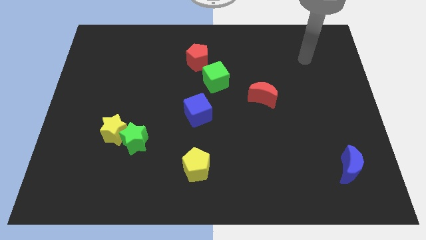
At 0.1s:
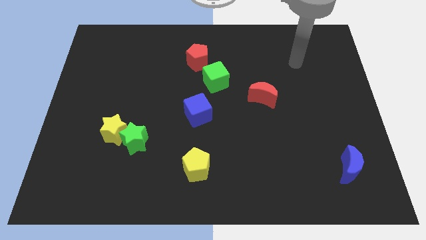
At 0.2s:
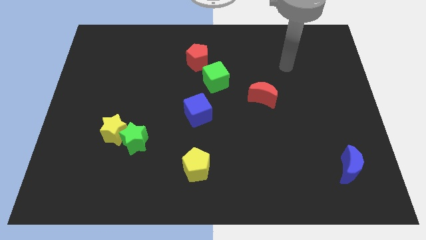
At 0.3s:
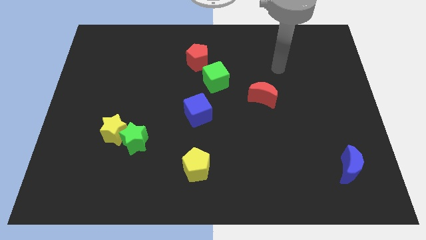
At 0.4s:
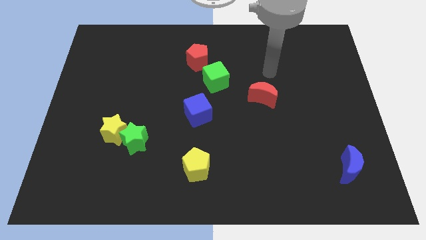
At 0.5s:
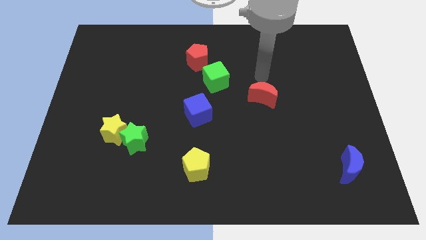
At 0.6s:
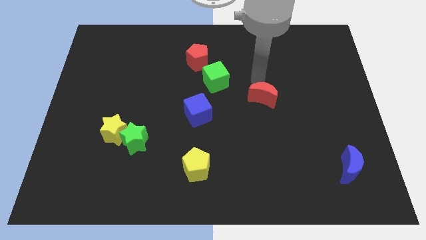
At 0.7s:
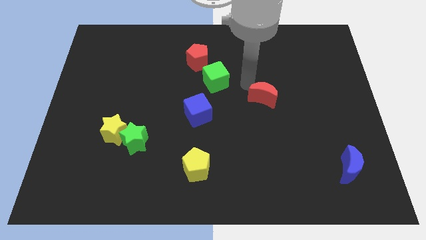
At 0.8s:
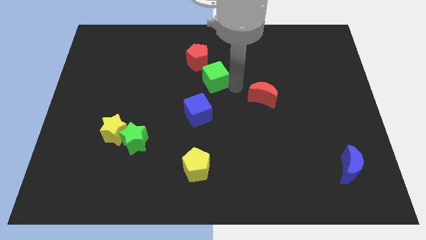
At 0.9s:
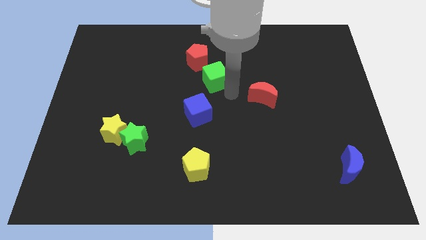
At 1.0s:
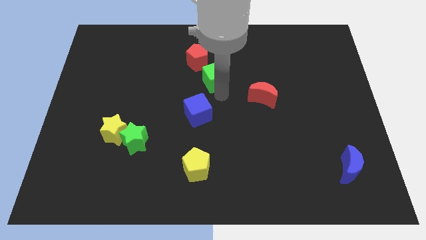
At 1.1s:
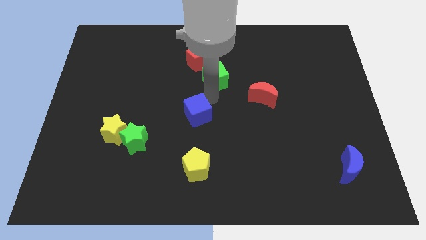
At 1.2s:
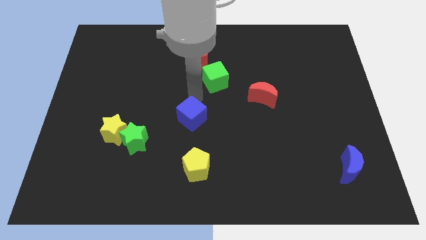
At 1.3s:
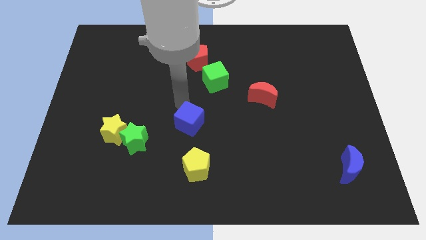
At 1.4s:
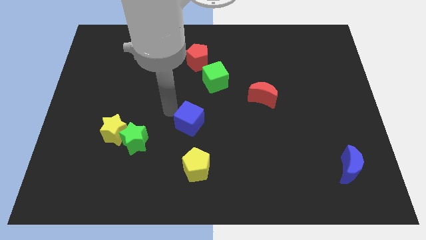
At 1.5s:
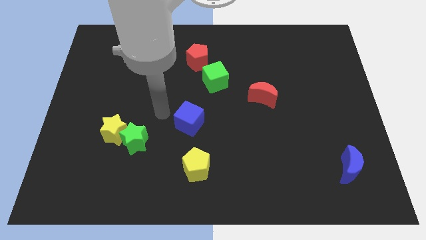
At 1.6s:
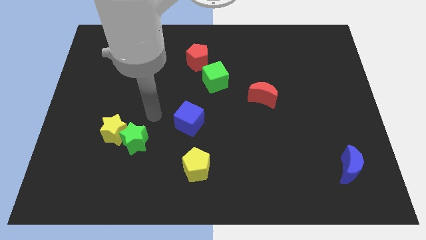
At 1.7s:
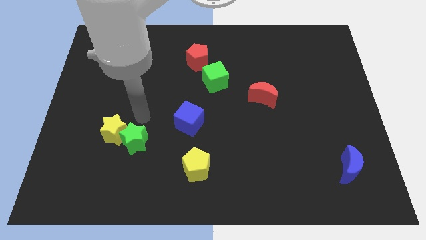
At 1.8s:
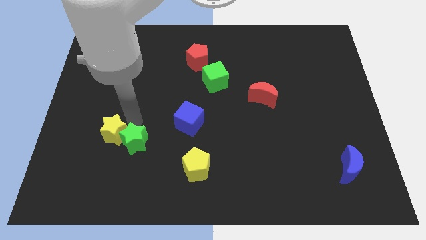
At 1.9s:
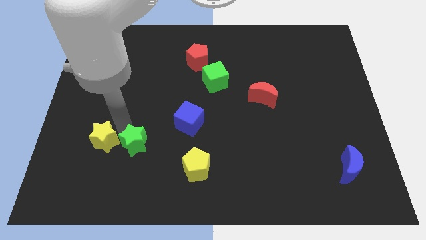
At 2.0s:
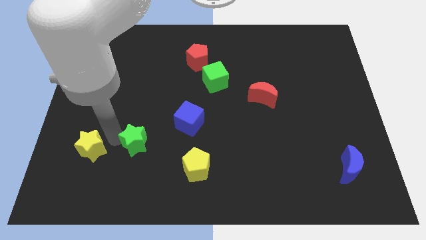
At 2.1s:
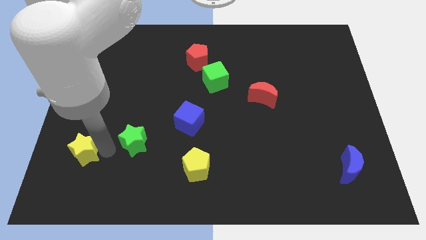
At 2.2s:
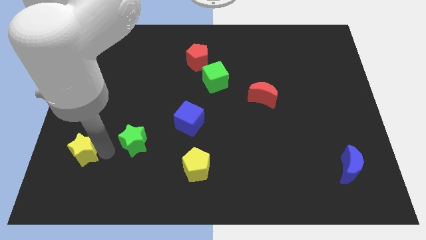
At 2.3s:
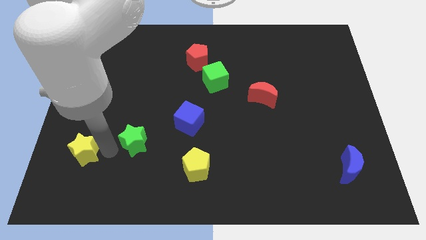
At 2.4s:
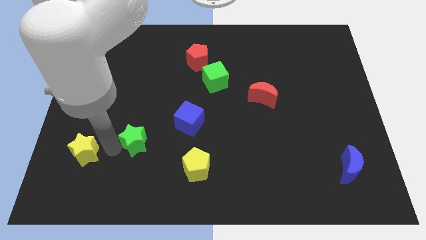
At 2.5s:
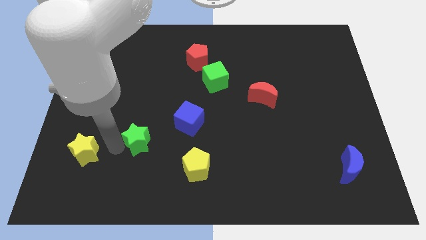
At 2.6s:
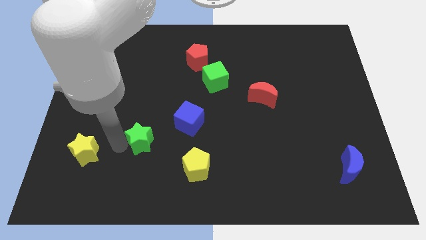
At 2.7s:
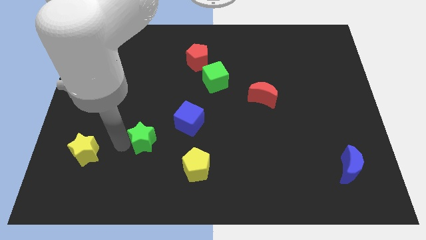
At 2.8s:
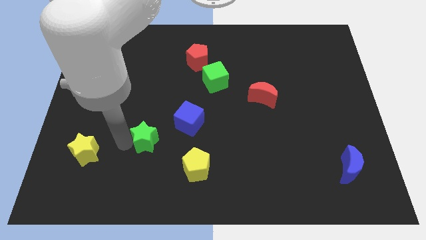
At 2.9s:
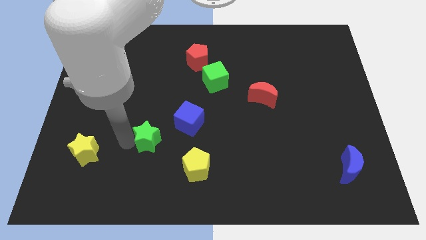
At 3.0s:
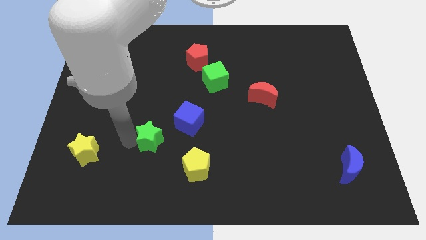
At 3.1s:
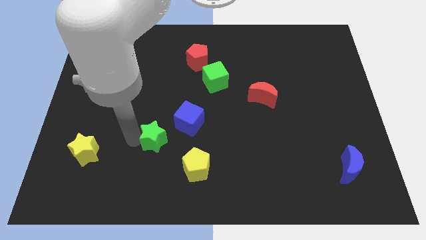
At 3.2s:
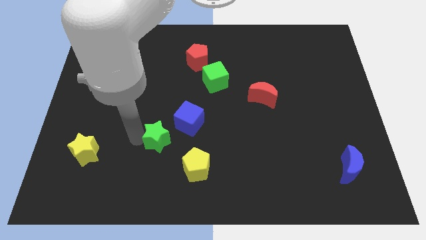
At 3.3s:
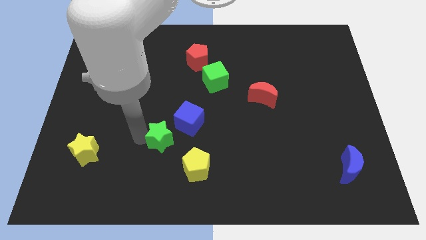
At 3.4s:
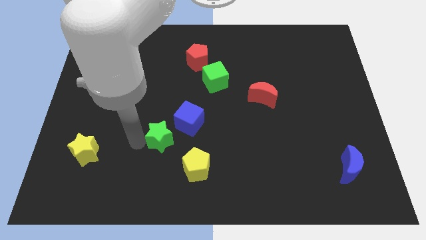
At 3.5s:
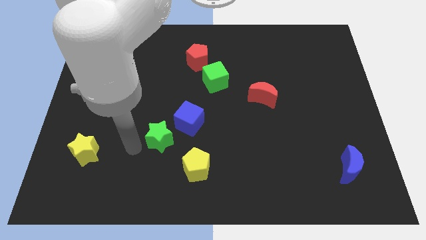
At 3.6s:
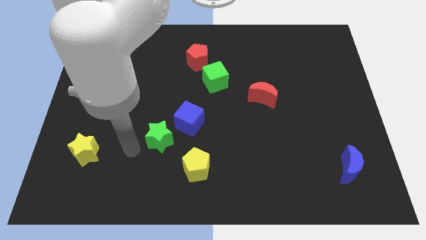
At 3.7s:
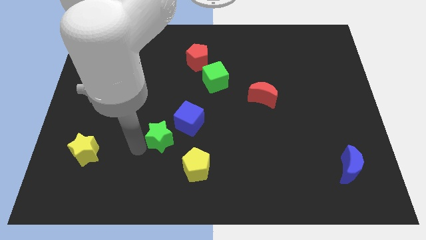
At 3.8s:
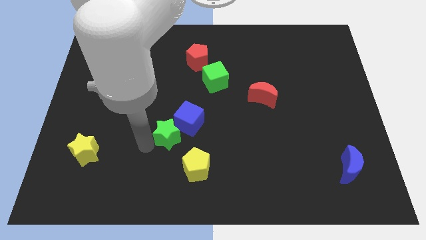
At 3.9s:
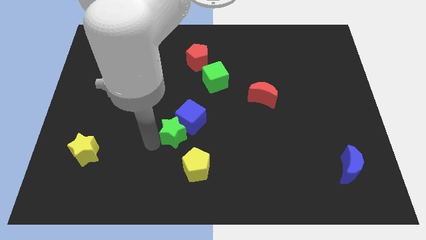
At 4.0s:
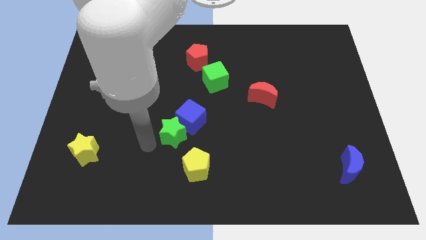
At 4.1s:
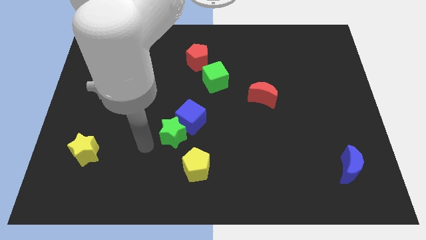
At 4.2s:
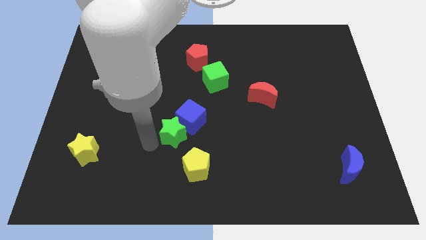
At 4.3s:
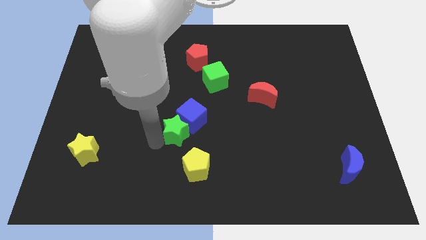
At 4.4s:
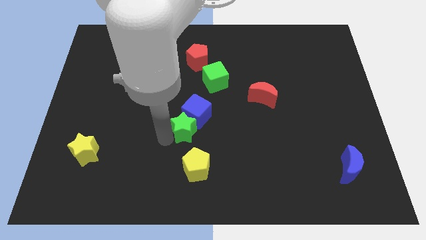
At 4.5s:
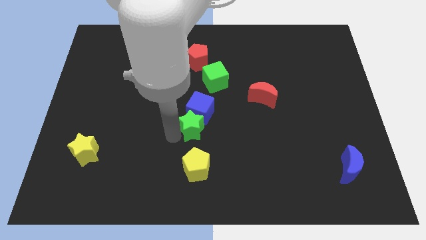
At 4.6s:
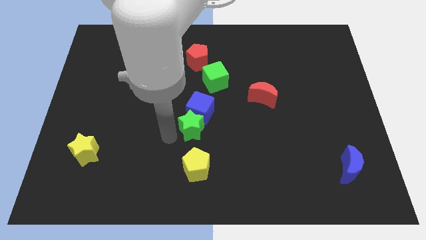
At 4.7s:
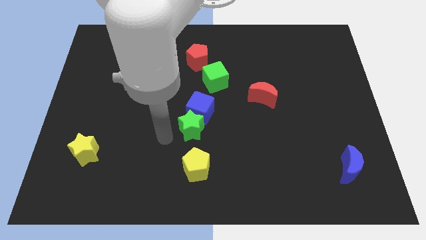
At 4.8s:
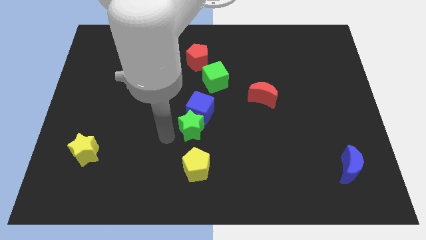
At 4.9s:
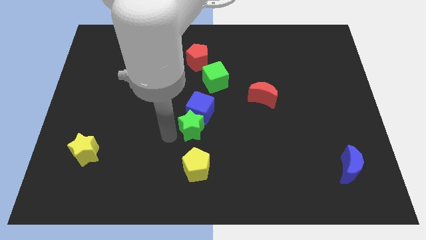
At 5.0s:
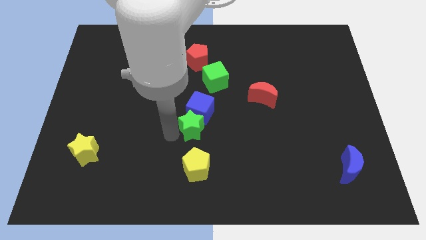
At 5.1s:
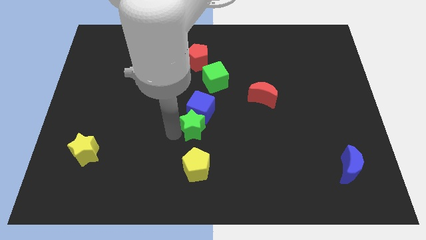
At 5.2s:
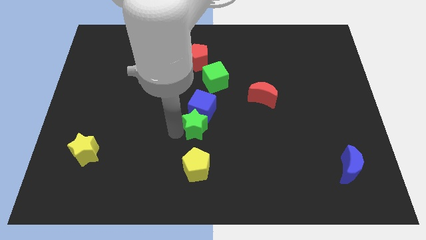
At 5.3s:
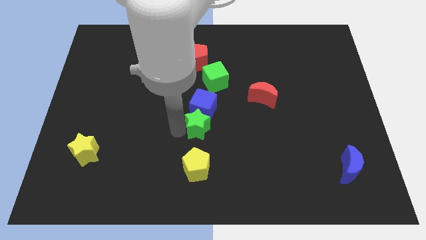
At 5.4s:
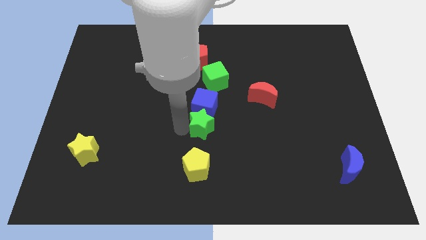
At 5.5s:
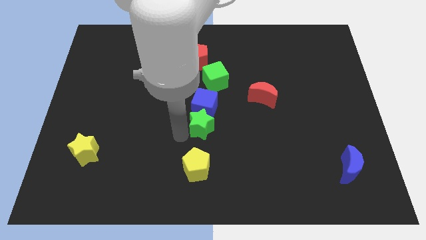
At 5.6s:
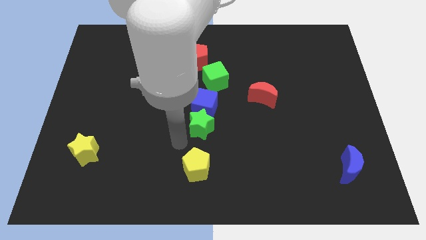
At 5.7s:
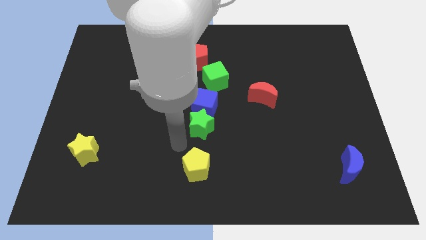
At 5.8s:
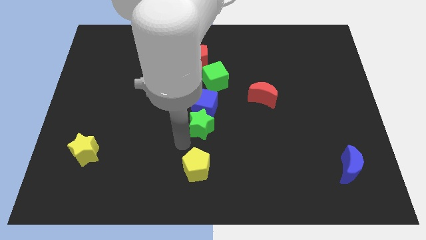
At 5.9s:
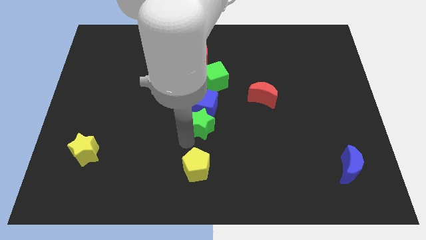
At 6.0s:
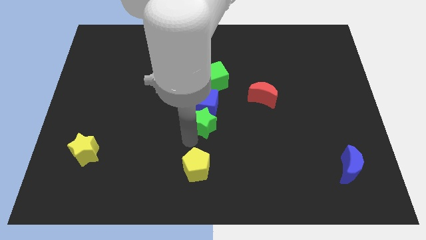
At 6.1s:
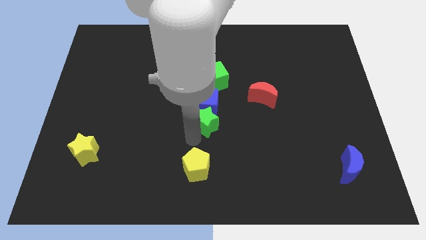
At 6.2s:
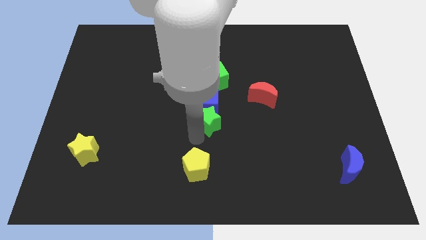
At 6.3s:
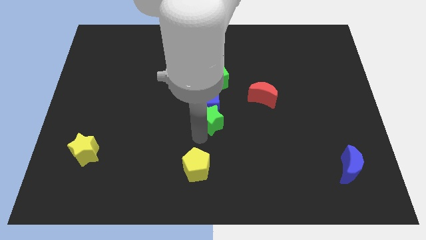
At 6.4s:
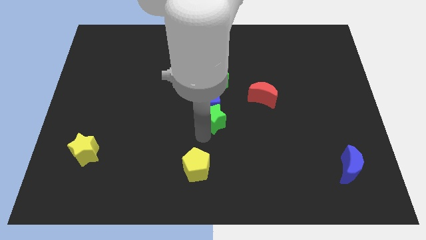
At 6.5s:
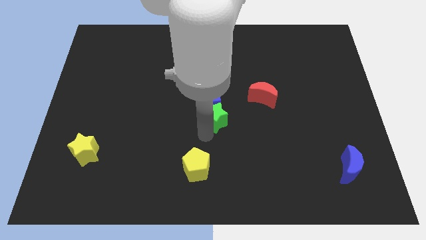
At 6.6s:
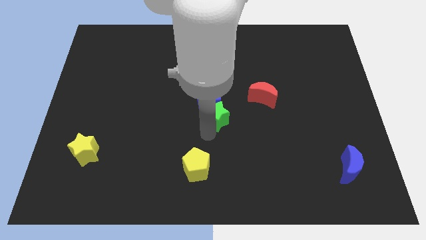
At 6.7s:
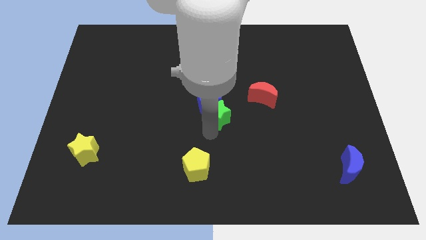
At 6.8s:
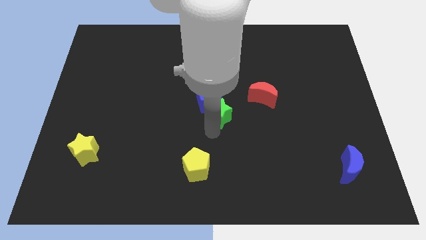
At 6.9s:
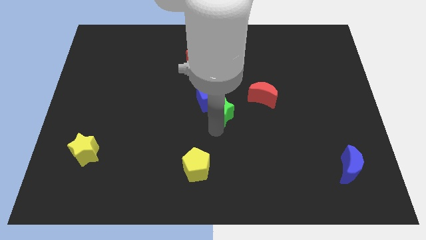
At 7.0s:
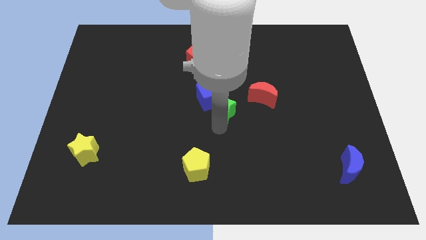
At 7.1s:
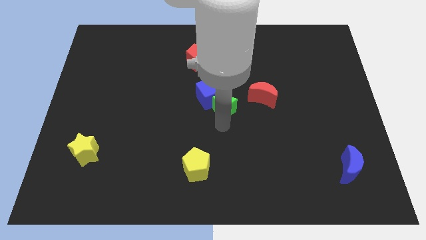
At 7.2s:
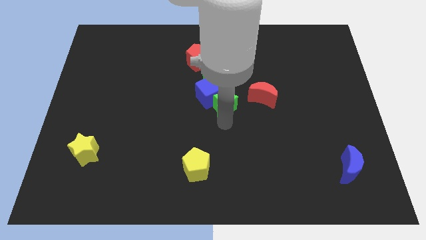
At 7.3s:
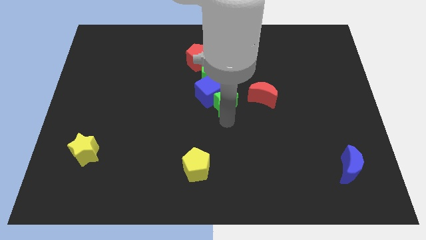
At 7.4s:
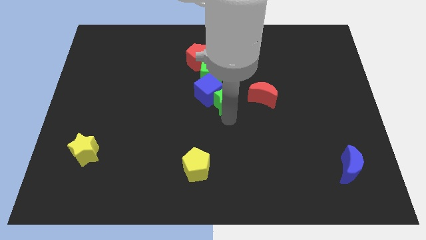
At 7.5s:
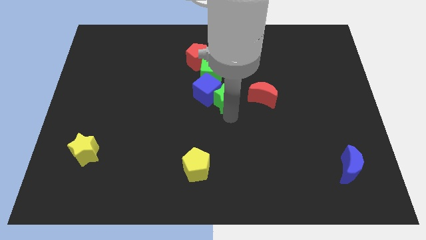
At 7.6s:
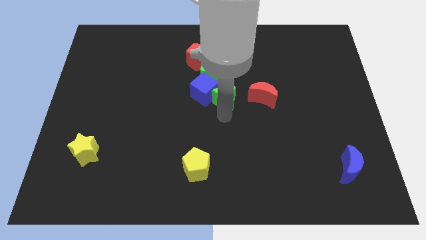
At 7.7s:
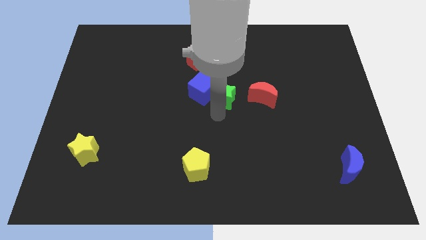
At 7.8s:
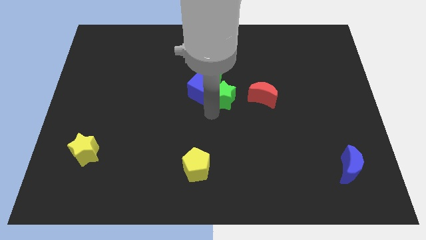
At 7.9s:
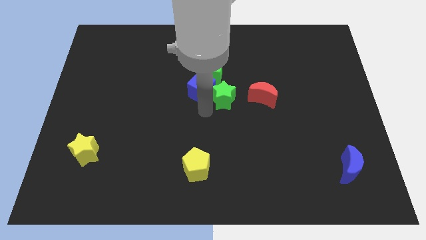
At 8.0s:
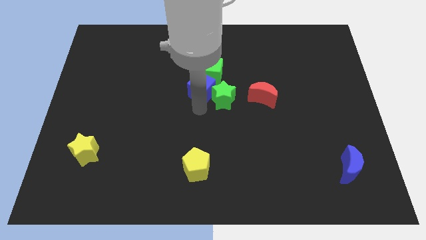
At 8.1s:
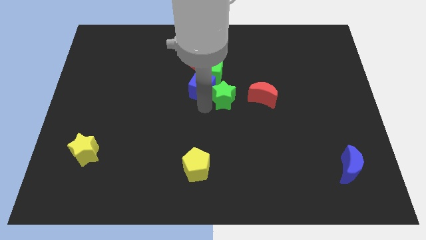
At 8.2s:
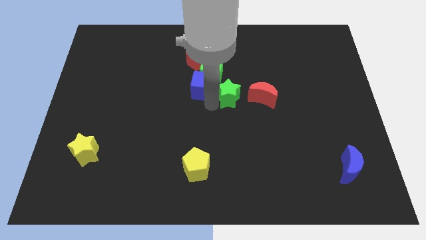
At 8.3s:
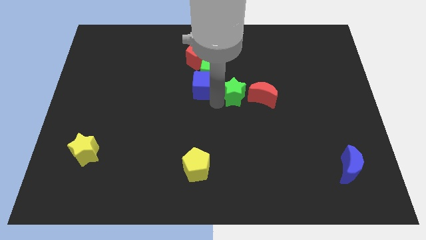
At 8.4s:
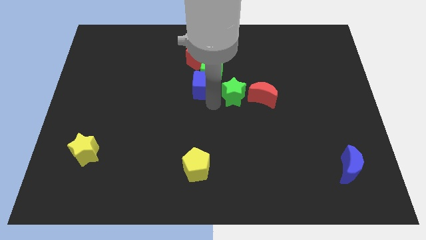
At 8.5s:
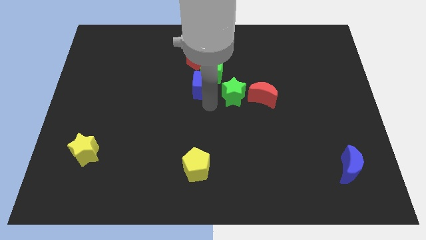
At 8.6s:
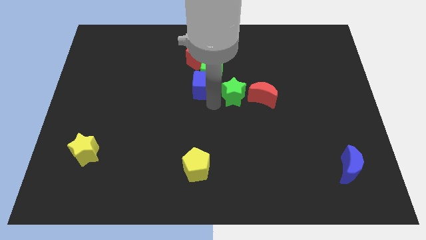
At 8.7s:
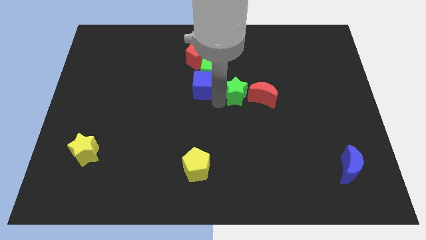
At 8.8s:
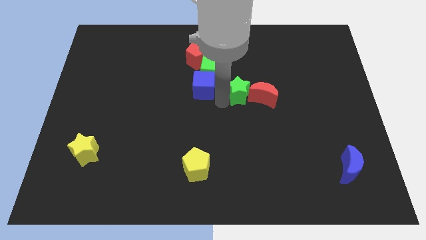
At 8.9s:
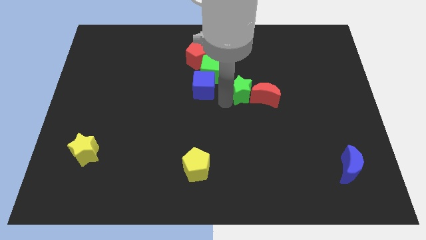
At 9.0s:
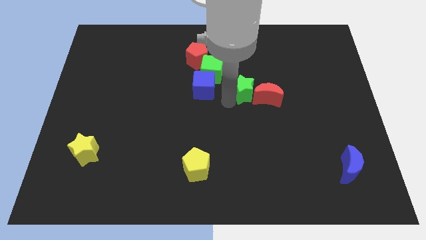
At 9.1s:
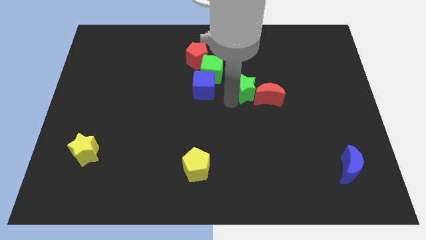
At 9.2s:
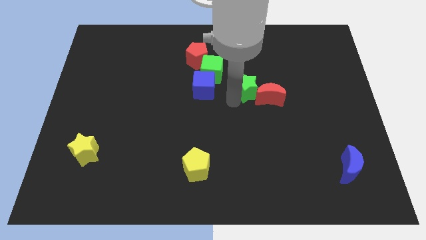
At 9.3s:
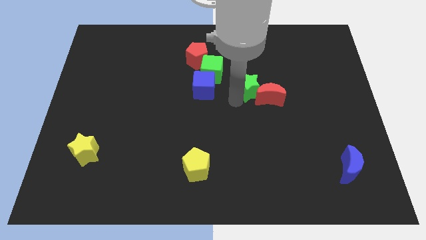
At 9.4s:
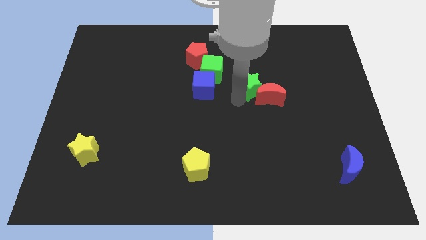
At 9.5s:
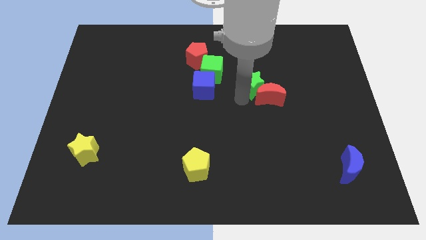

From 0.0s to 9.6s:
put the green star to the top side of the red moon
